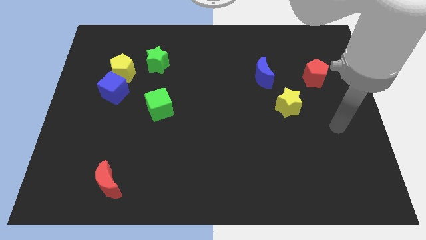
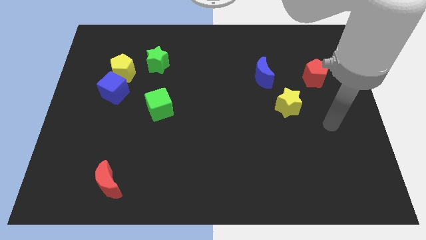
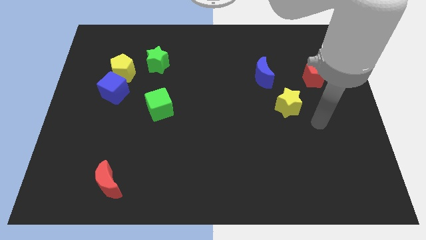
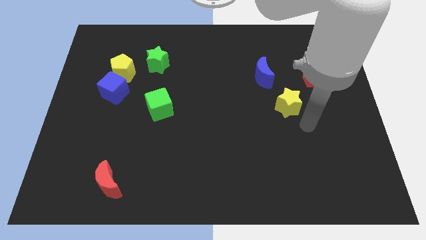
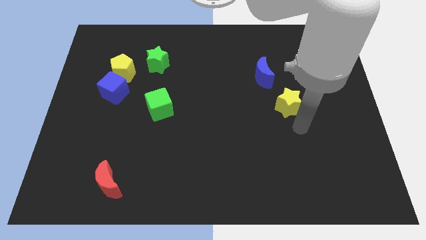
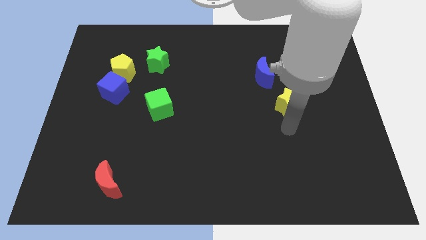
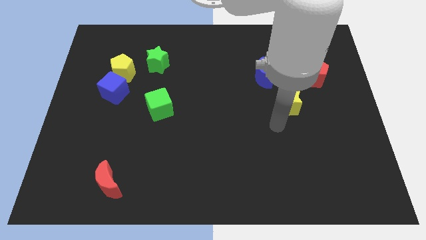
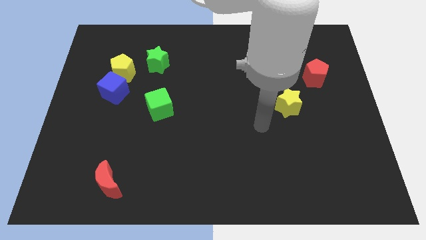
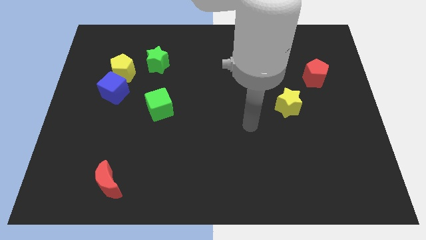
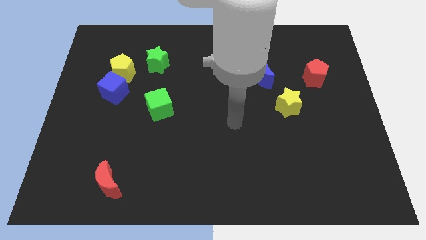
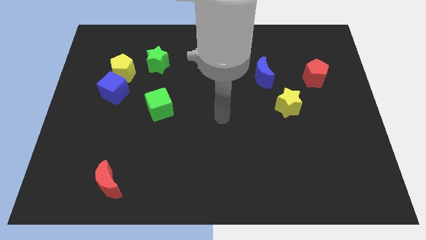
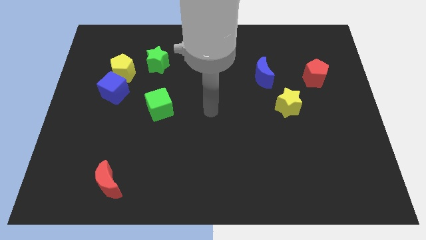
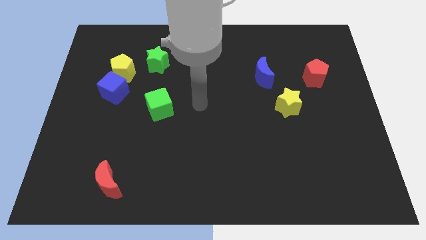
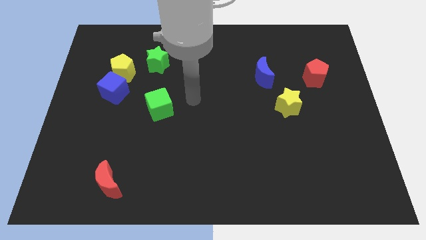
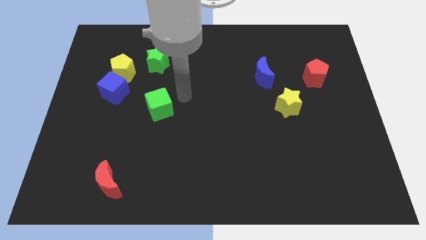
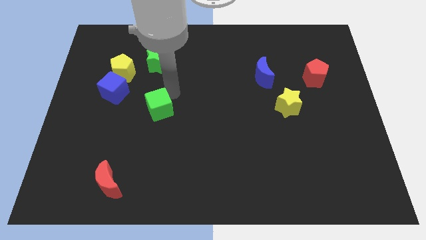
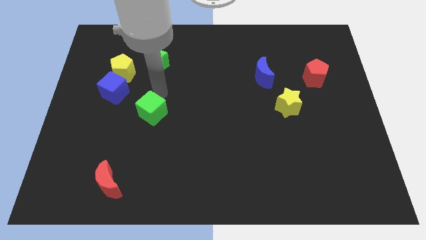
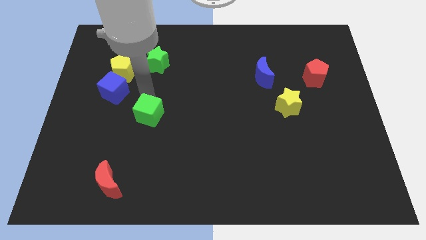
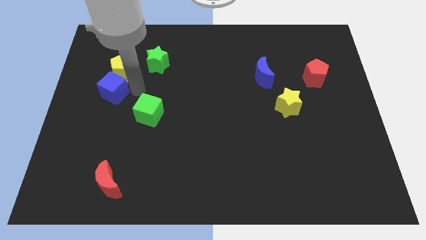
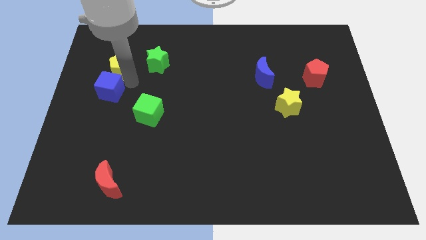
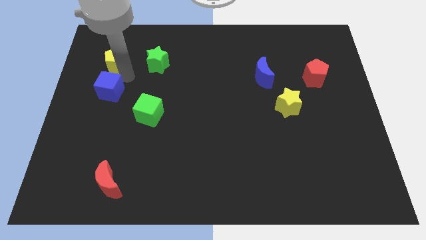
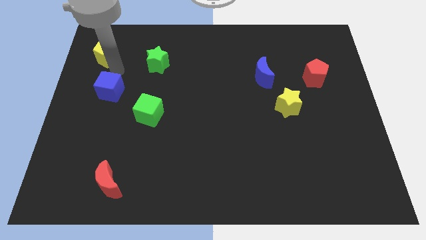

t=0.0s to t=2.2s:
separate the blue cube from the yellow pentagon

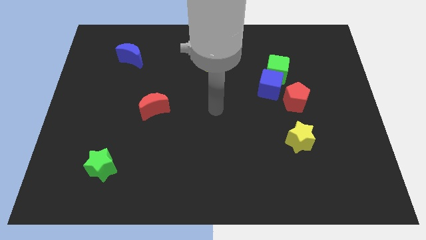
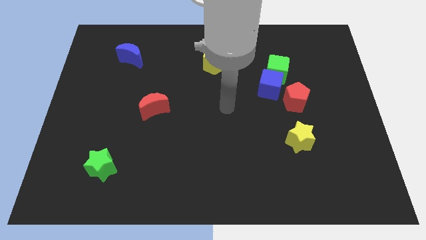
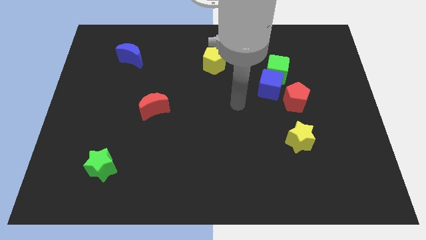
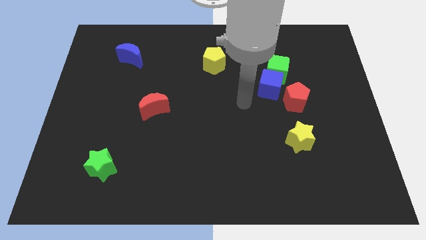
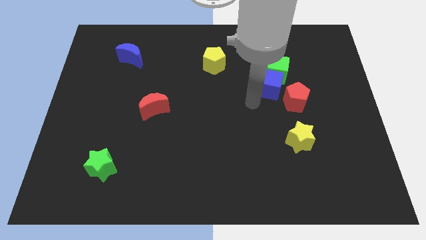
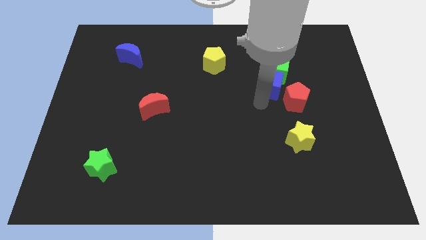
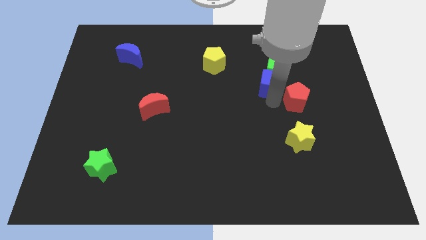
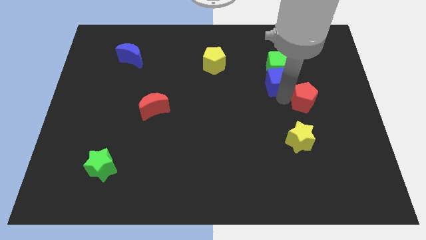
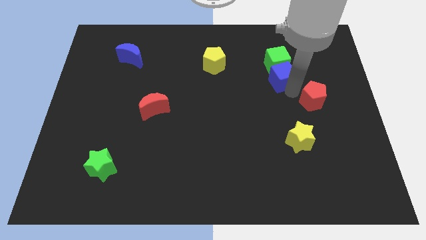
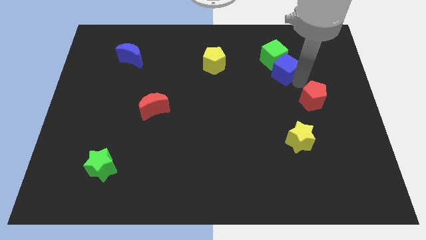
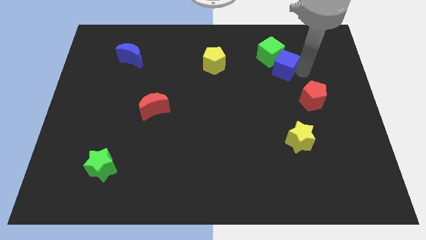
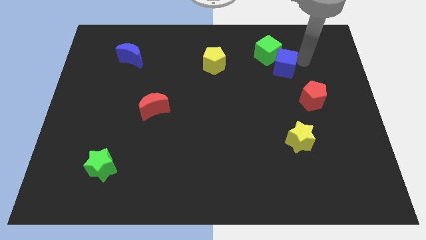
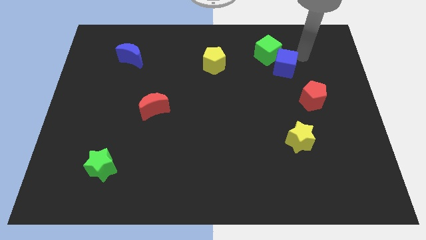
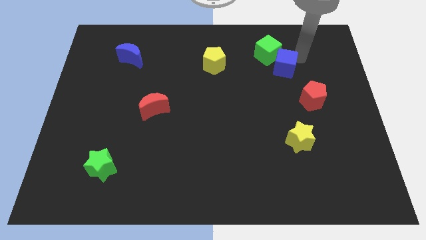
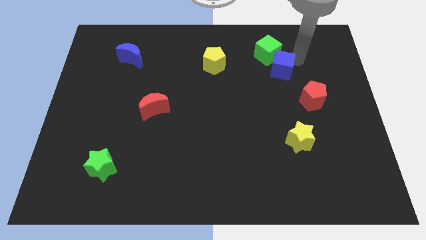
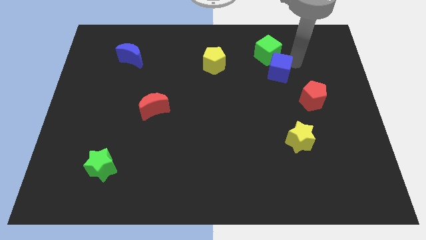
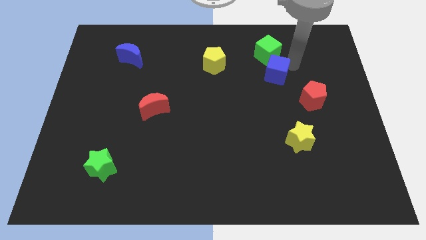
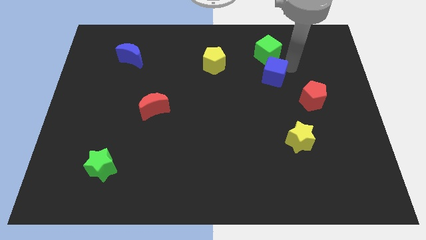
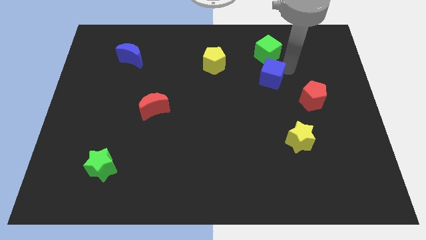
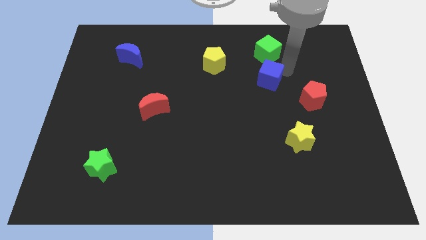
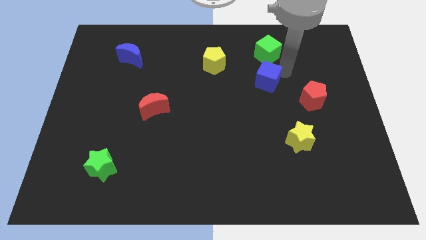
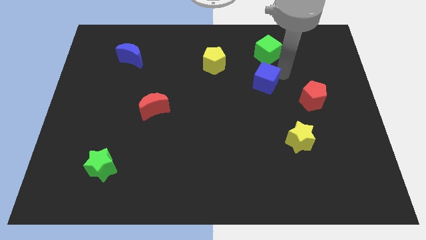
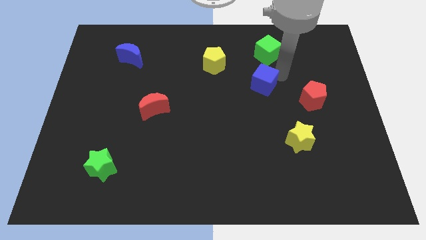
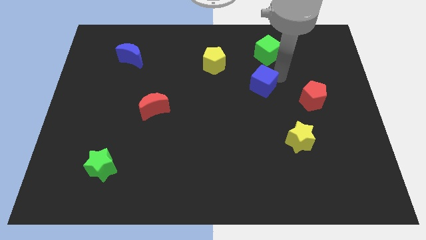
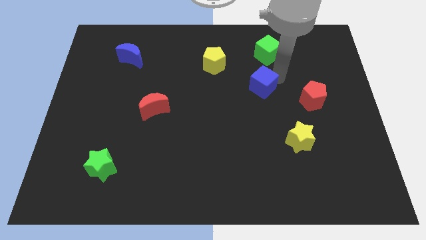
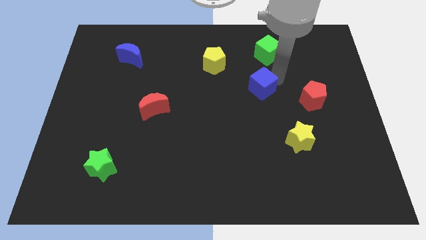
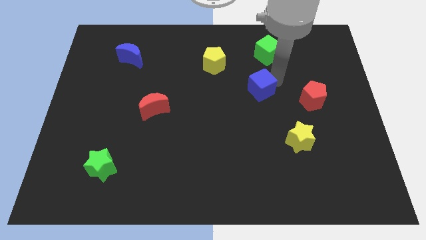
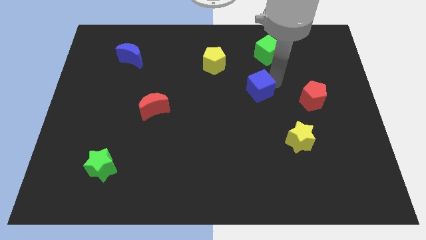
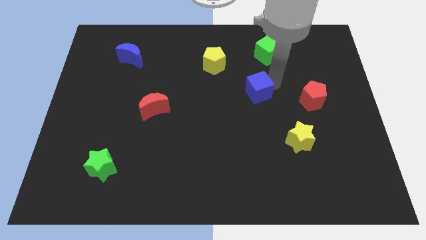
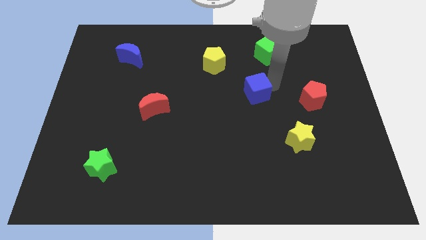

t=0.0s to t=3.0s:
move the blue cube away from the green cube and red pentagon

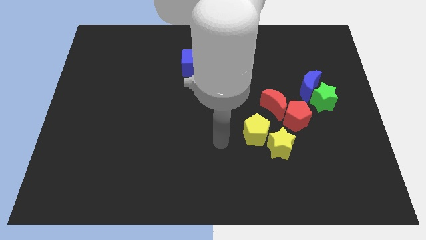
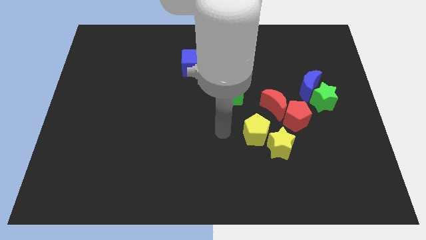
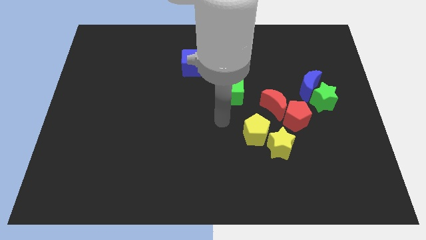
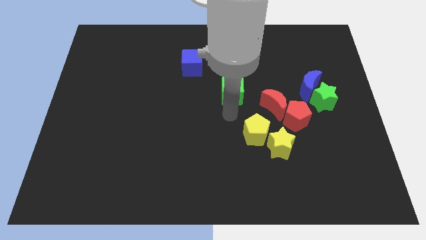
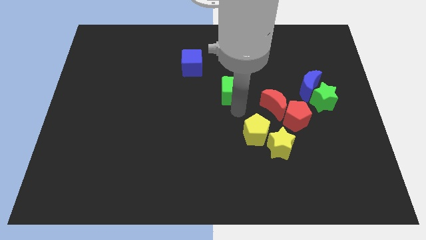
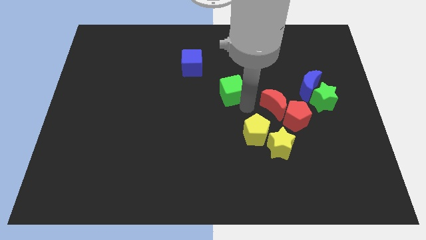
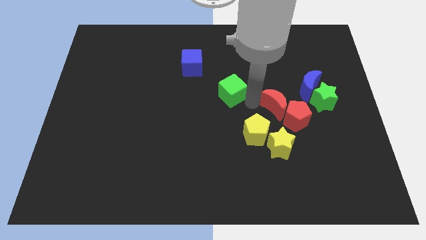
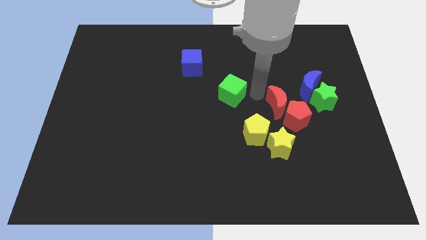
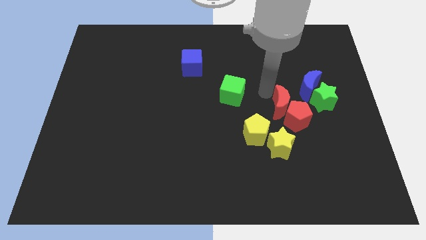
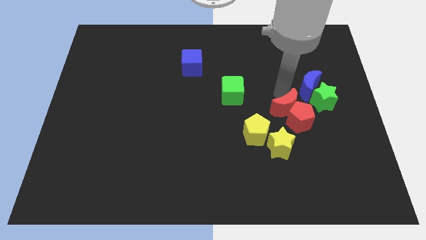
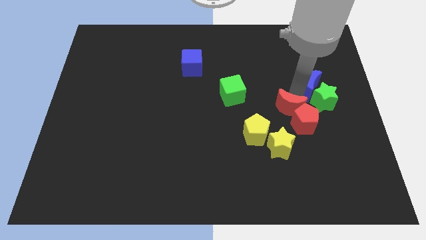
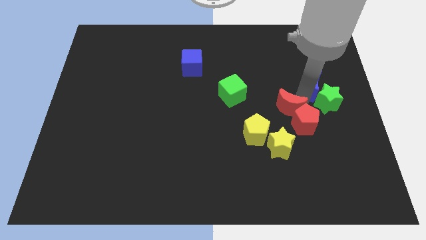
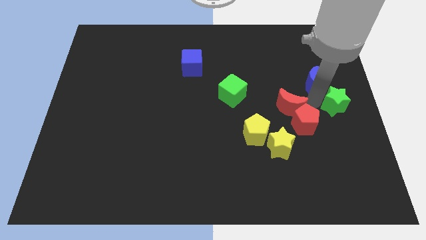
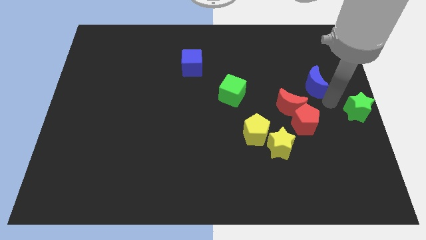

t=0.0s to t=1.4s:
pull the blue moon apart from the green star

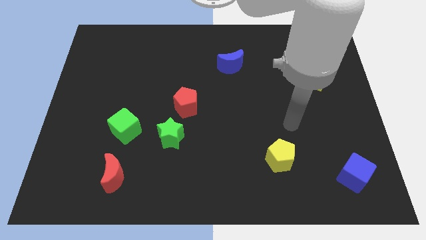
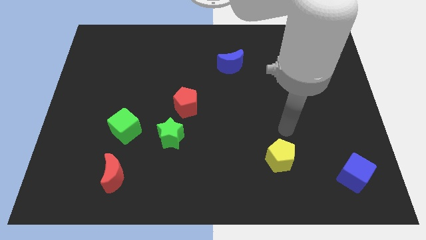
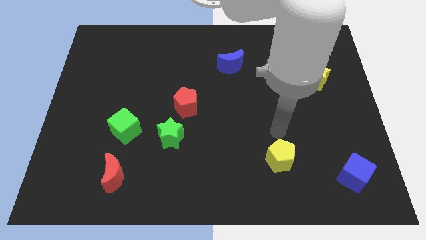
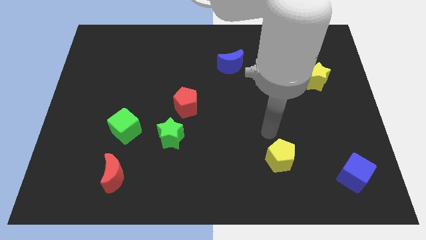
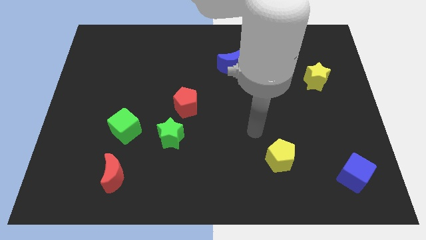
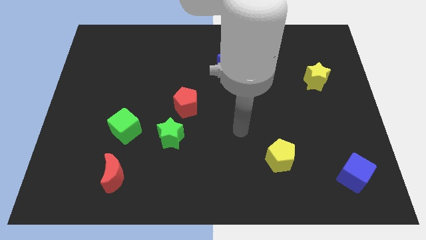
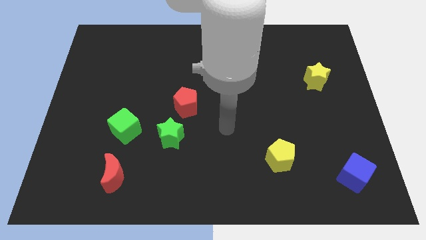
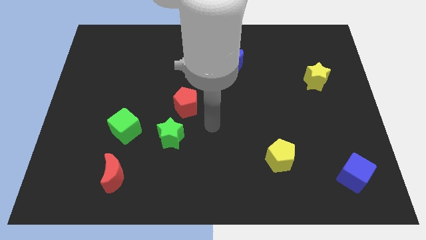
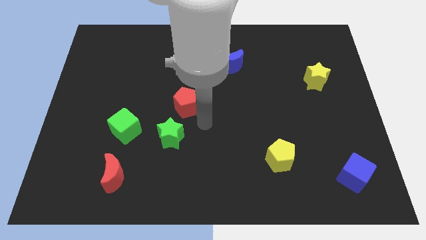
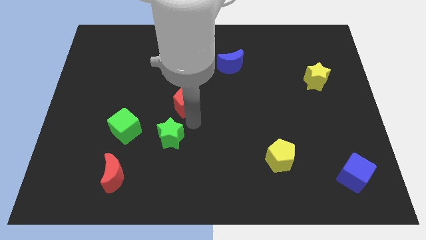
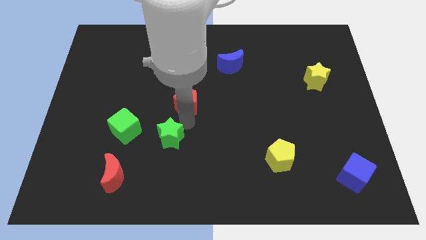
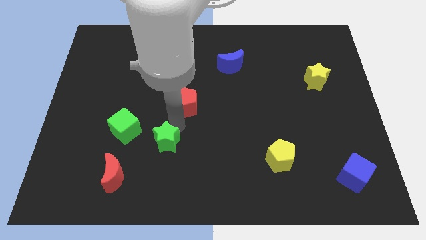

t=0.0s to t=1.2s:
pull the red pentagon apart from the green star

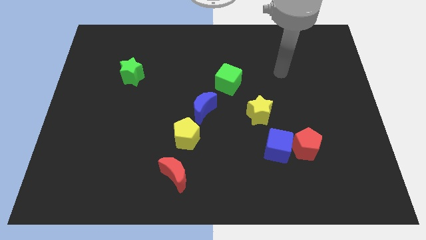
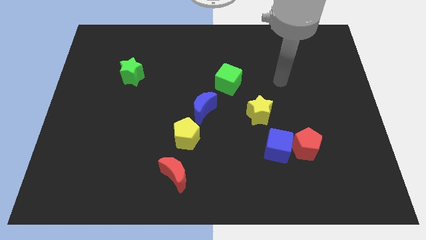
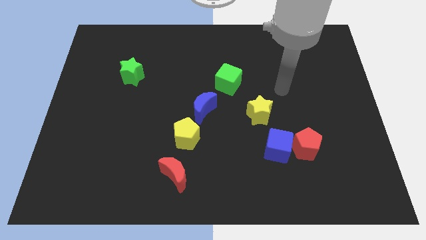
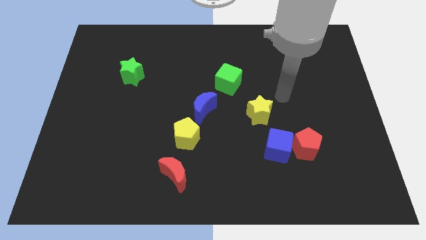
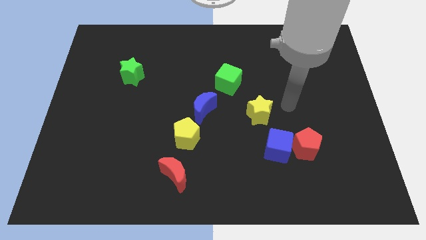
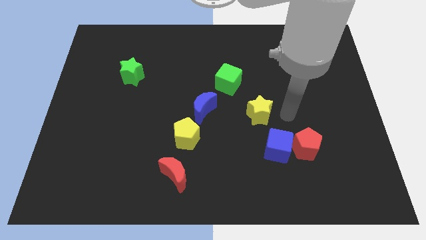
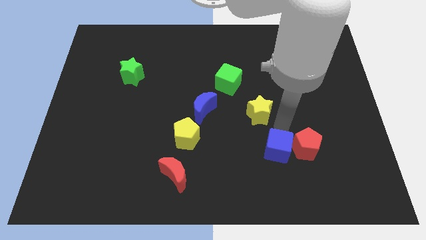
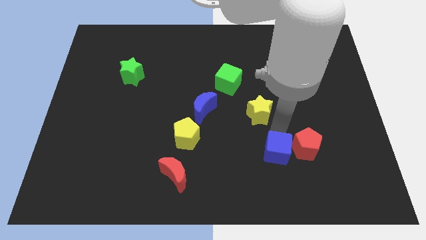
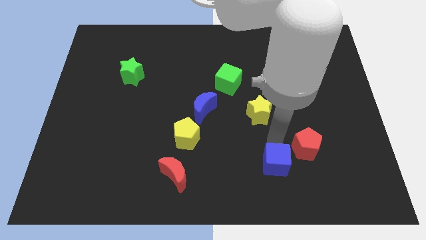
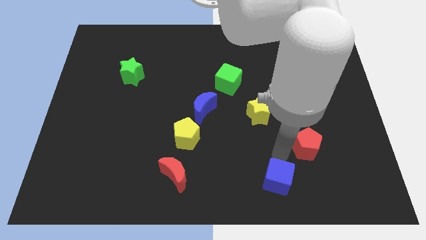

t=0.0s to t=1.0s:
pull the red pentagon apart from the blue cube

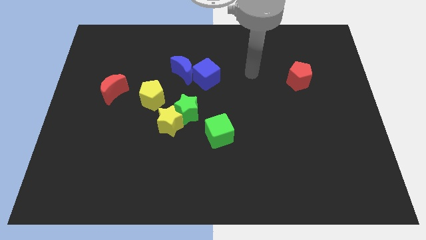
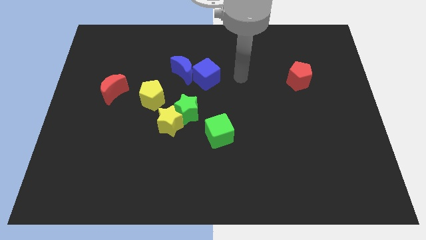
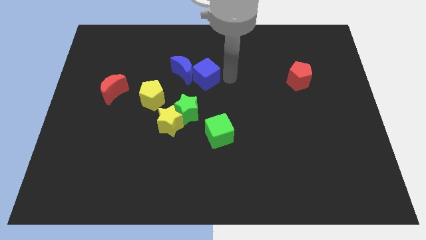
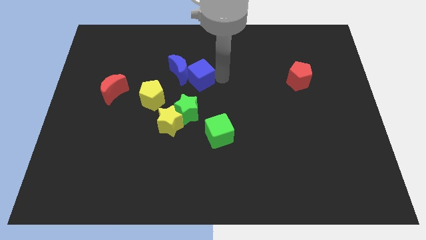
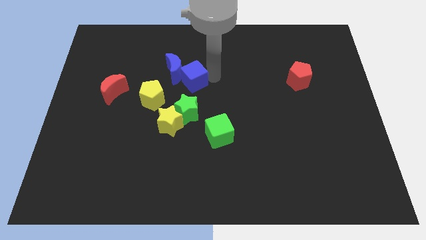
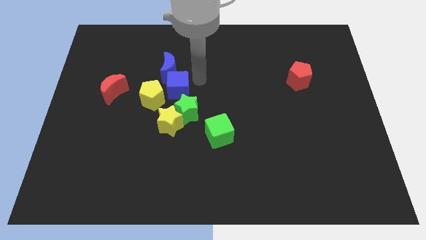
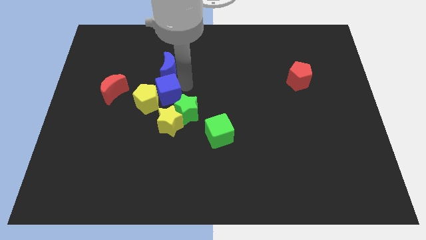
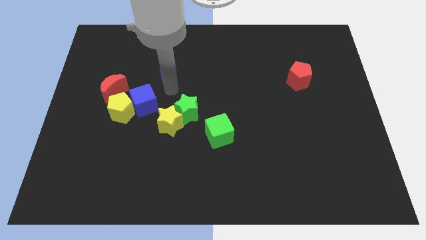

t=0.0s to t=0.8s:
pull the blue moon apart from the blue cube
